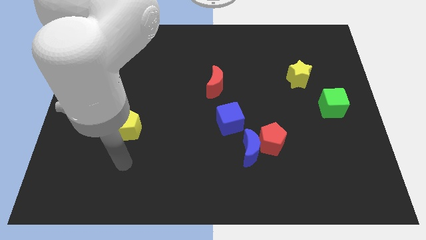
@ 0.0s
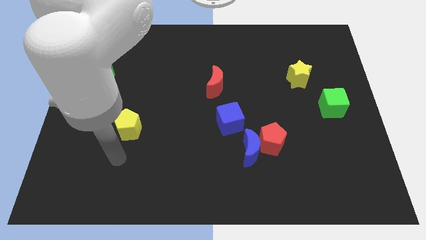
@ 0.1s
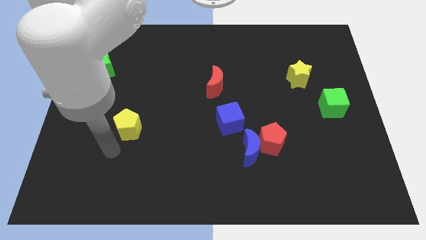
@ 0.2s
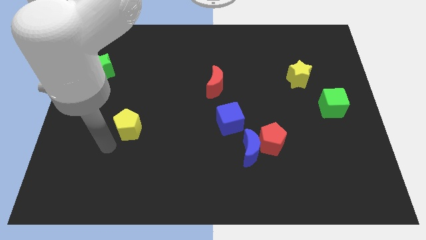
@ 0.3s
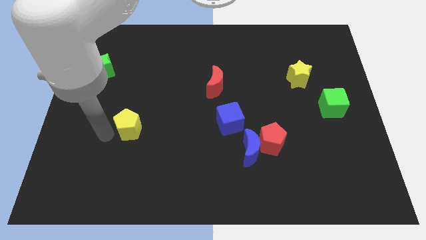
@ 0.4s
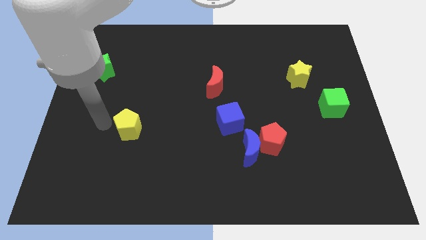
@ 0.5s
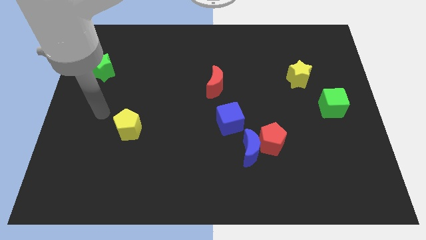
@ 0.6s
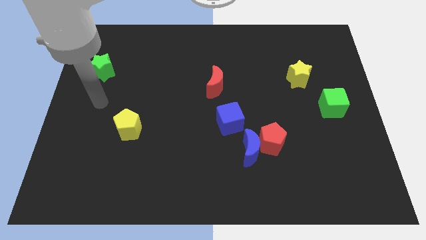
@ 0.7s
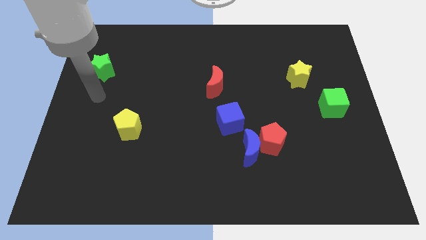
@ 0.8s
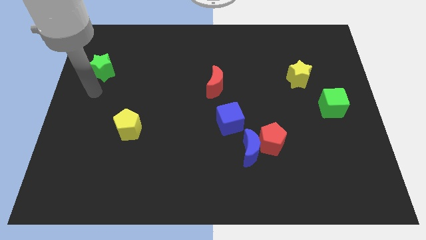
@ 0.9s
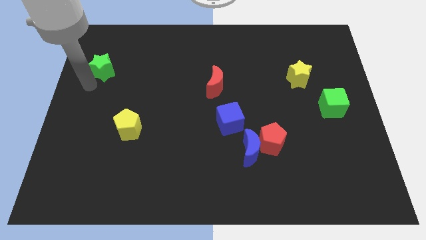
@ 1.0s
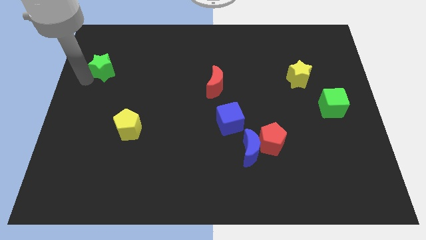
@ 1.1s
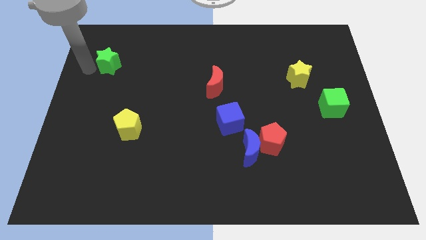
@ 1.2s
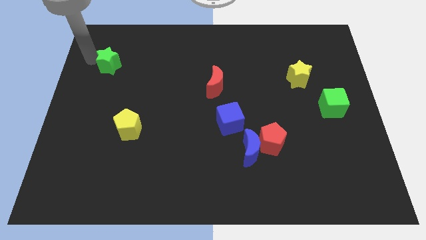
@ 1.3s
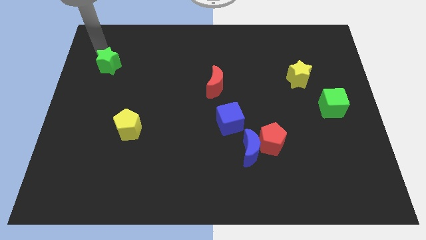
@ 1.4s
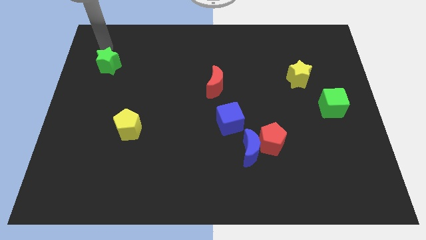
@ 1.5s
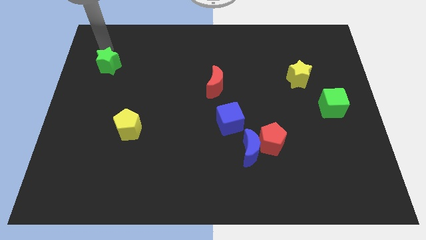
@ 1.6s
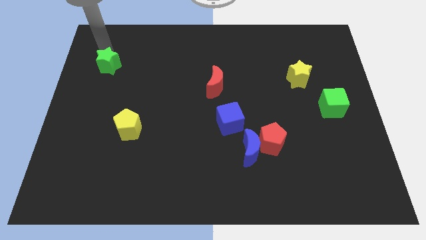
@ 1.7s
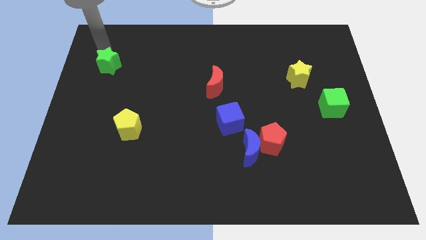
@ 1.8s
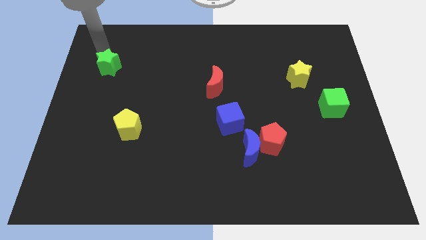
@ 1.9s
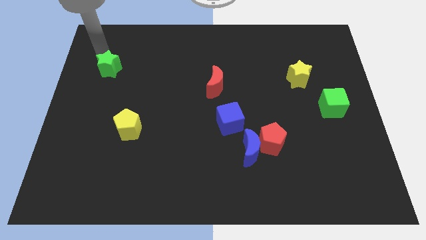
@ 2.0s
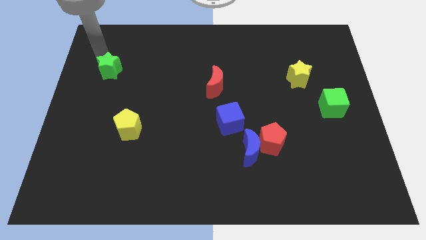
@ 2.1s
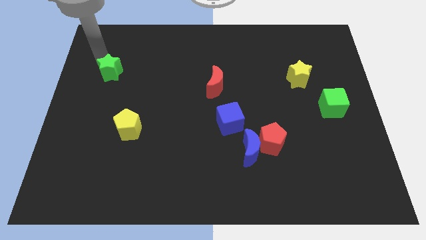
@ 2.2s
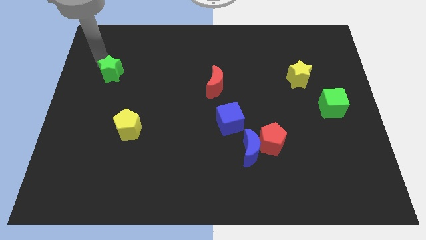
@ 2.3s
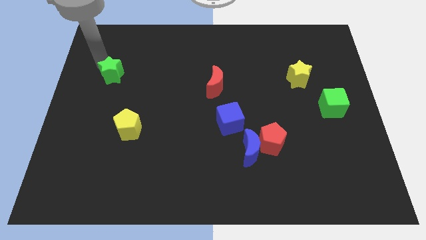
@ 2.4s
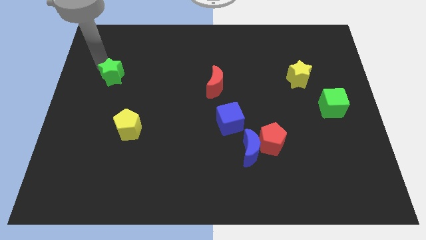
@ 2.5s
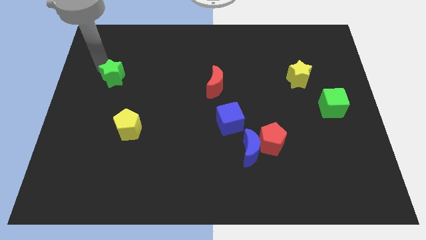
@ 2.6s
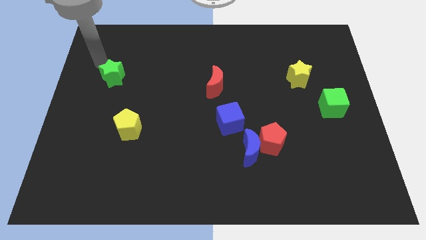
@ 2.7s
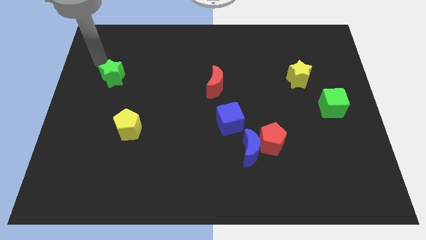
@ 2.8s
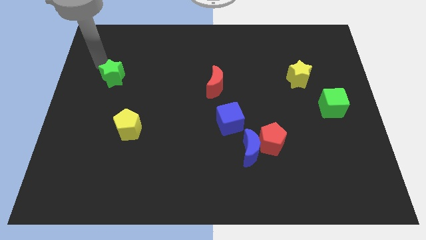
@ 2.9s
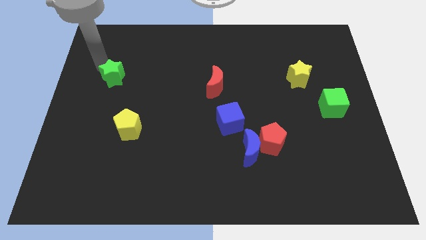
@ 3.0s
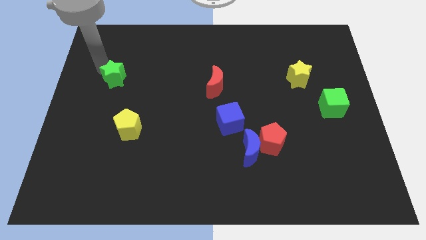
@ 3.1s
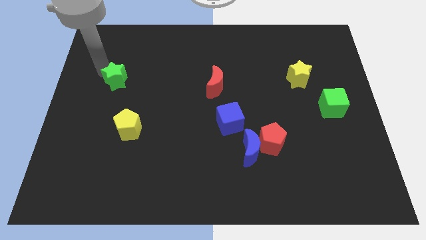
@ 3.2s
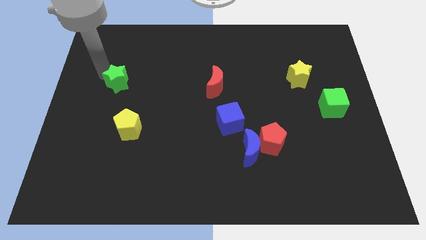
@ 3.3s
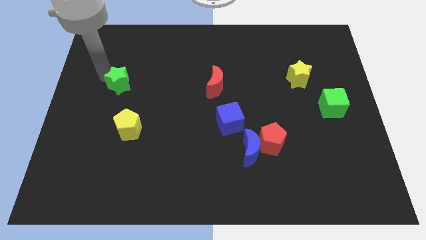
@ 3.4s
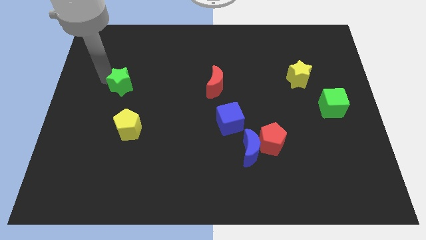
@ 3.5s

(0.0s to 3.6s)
slightly slide the green star downwards and to the right diagonally

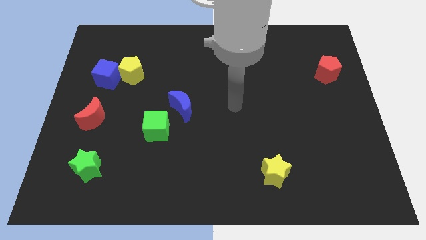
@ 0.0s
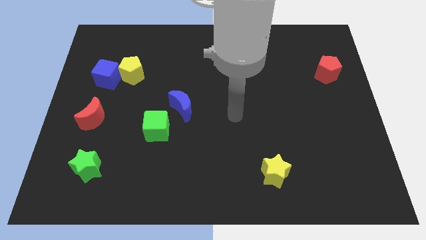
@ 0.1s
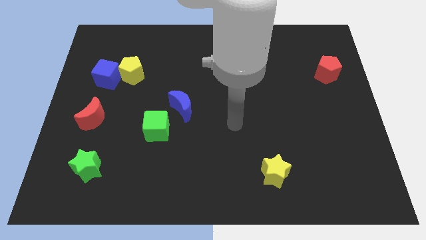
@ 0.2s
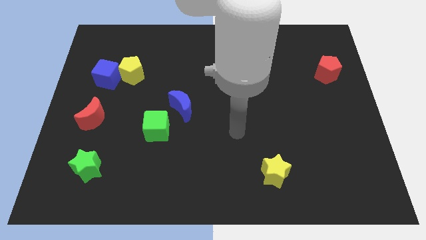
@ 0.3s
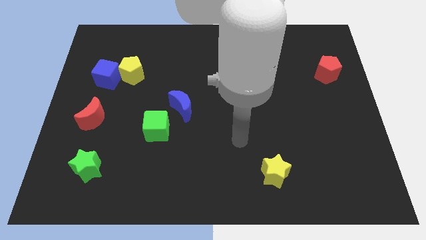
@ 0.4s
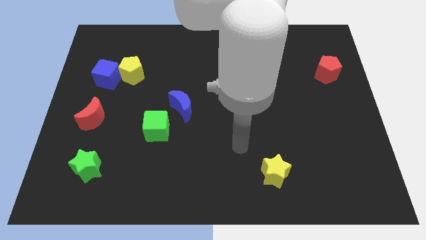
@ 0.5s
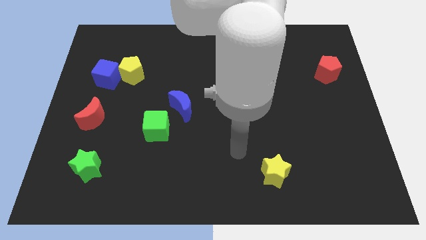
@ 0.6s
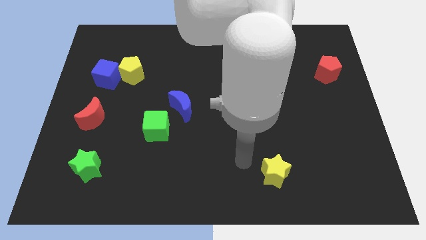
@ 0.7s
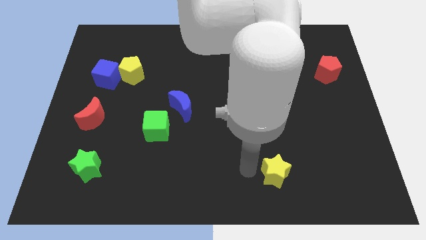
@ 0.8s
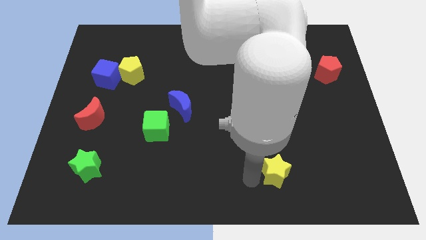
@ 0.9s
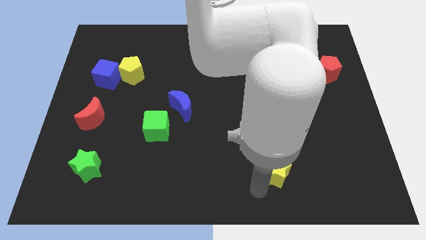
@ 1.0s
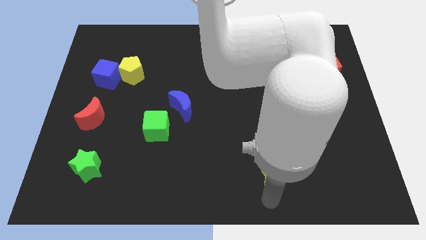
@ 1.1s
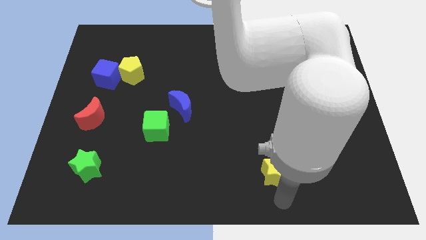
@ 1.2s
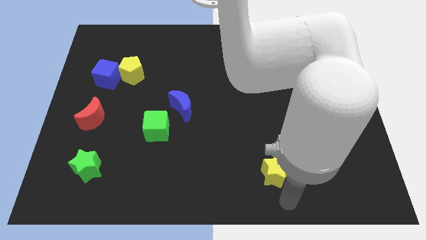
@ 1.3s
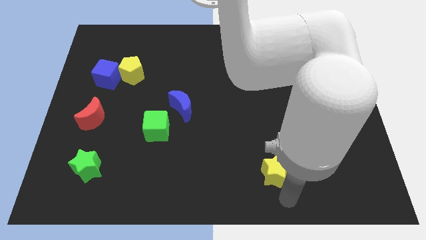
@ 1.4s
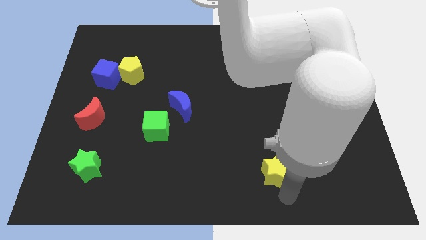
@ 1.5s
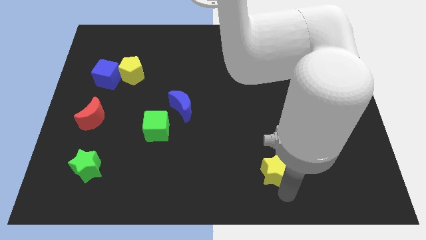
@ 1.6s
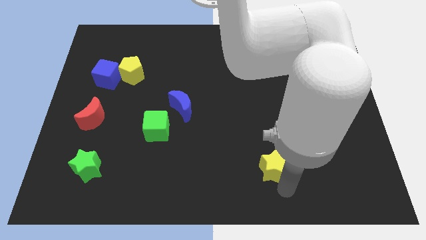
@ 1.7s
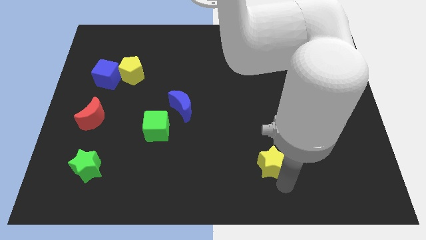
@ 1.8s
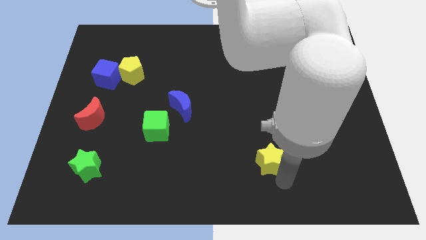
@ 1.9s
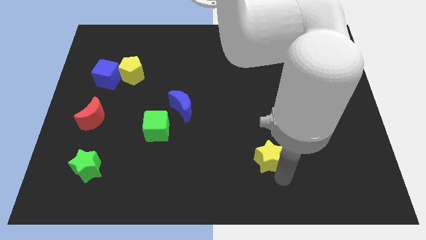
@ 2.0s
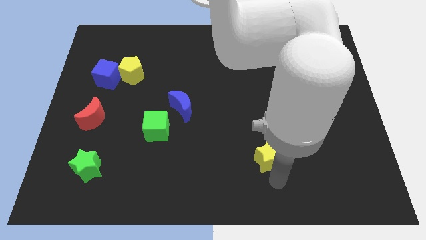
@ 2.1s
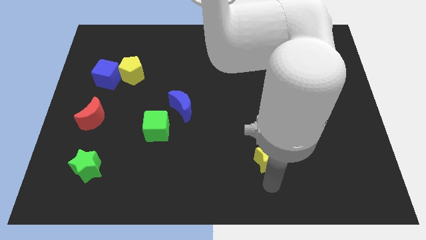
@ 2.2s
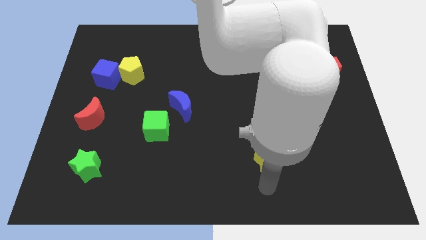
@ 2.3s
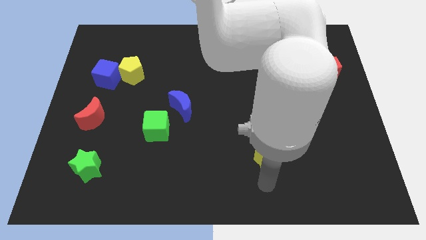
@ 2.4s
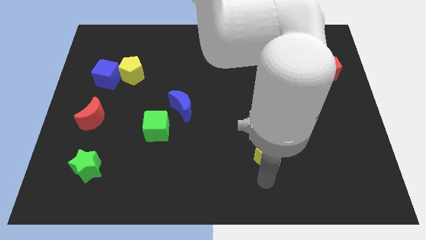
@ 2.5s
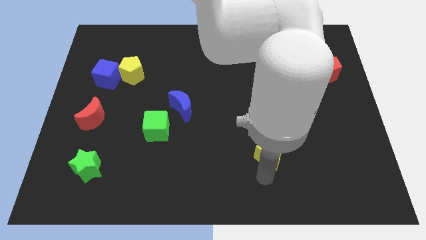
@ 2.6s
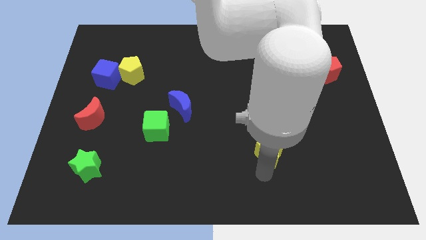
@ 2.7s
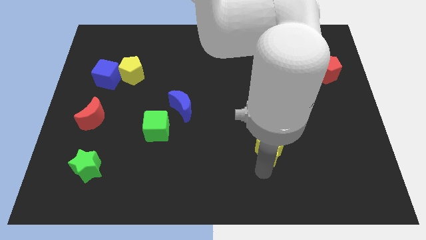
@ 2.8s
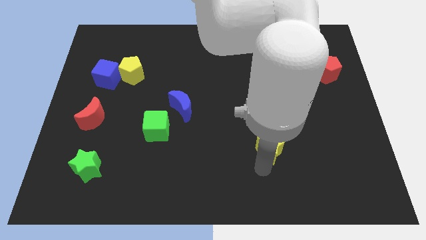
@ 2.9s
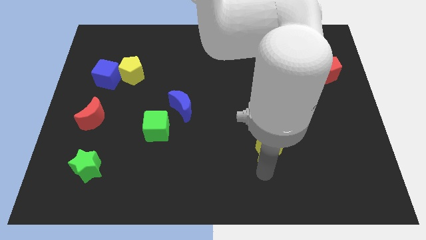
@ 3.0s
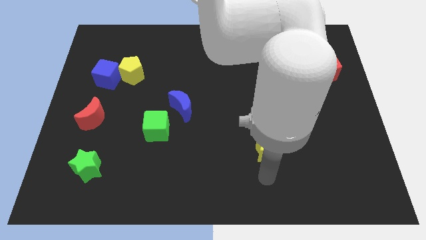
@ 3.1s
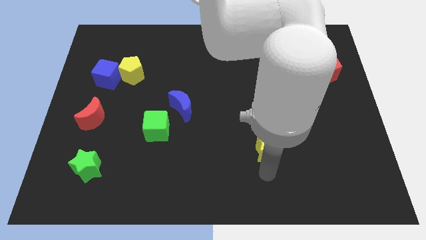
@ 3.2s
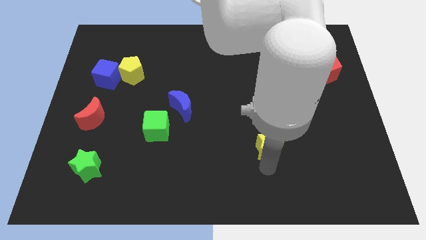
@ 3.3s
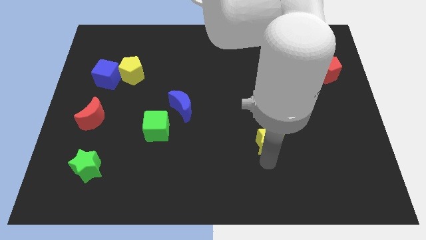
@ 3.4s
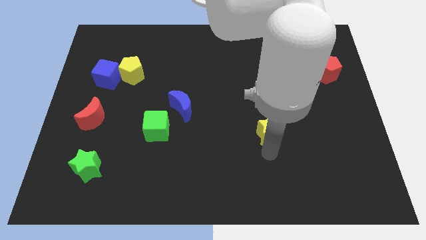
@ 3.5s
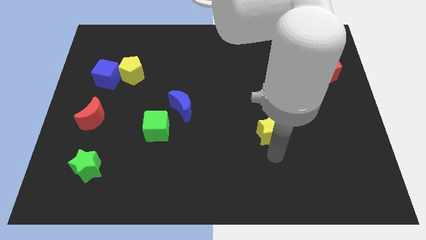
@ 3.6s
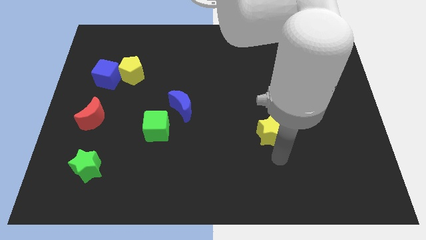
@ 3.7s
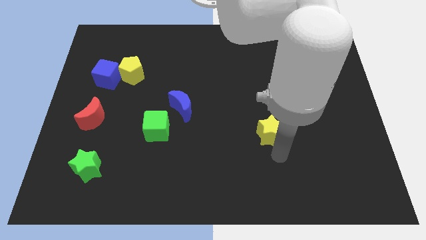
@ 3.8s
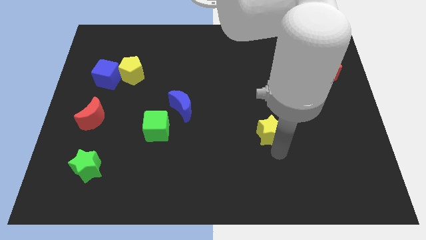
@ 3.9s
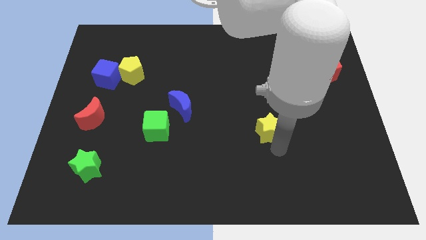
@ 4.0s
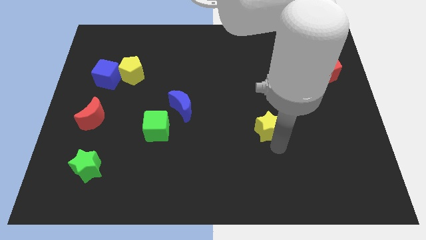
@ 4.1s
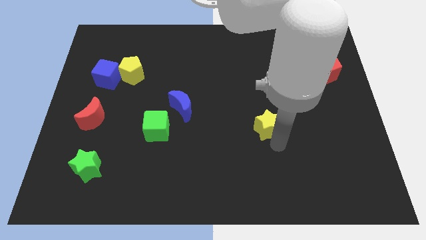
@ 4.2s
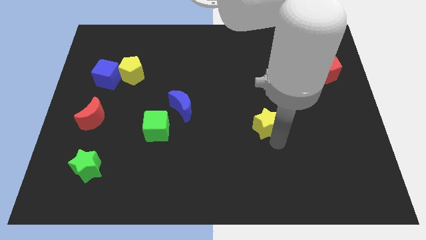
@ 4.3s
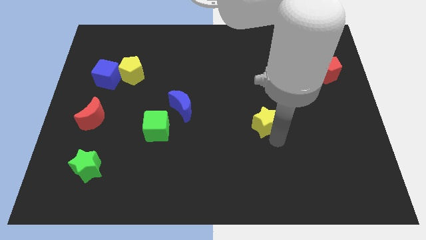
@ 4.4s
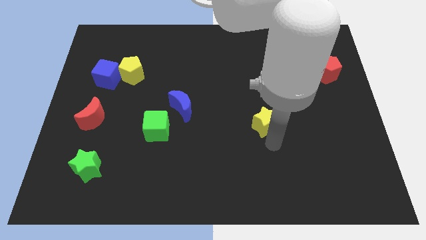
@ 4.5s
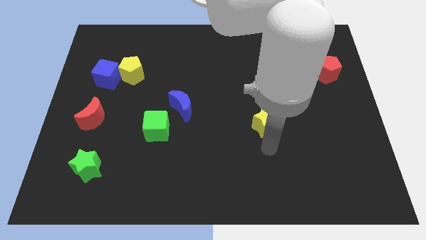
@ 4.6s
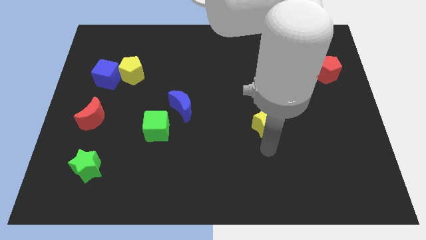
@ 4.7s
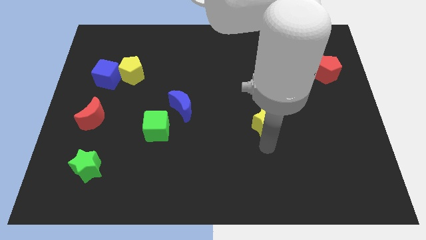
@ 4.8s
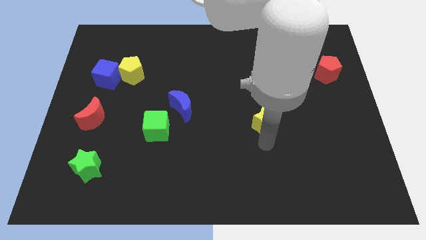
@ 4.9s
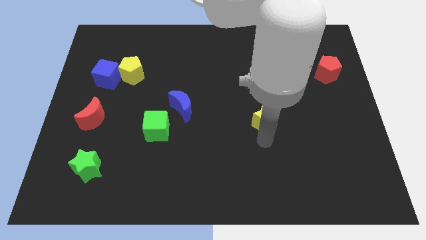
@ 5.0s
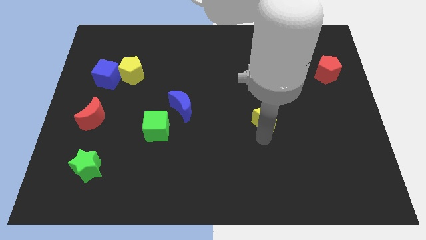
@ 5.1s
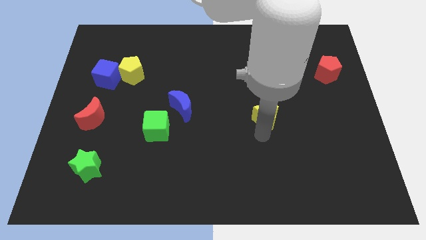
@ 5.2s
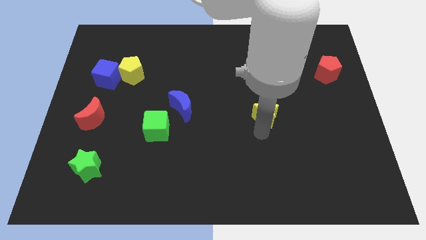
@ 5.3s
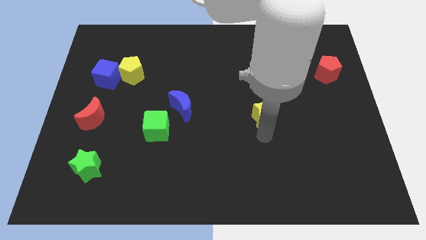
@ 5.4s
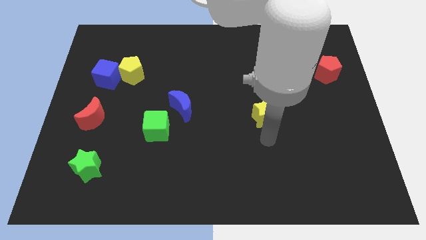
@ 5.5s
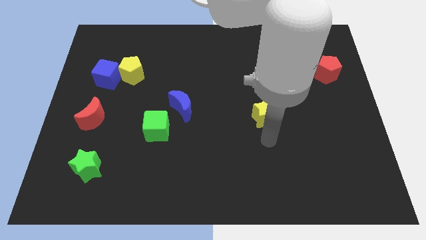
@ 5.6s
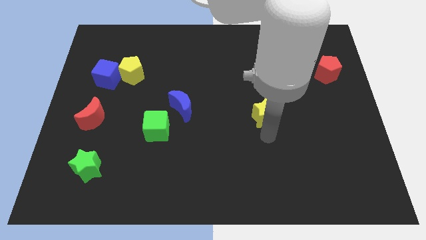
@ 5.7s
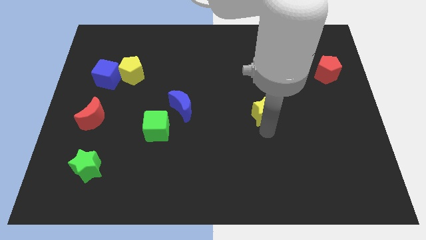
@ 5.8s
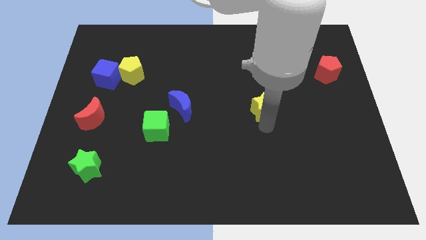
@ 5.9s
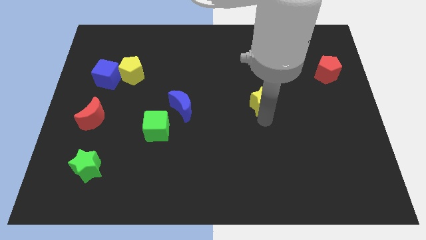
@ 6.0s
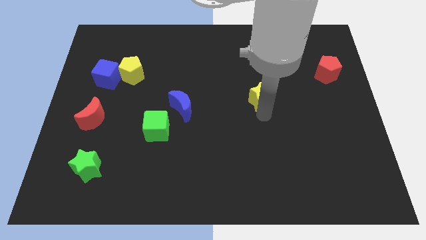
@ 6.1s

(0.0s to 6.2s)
slide the yellow star up
